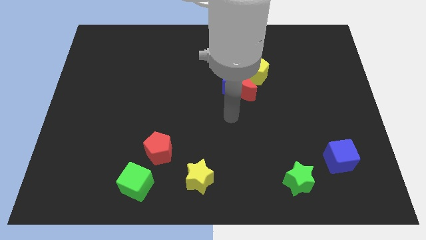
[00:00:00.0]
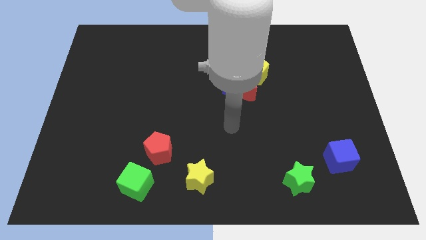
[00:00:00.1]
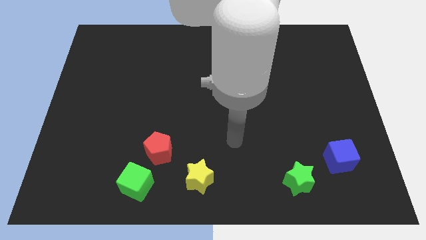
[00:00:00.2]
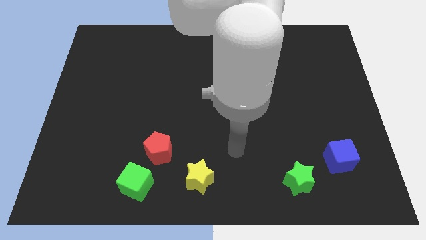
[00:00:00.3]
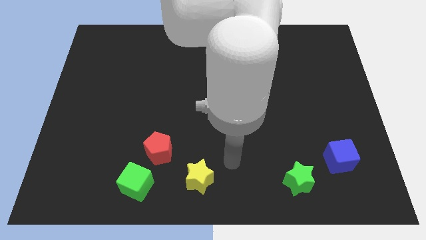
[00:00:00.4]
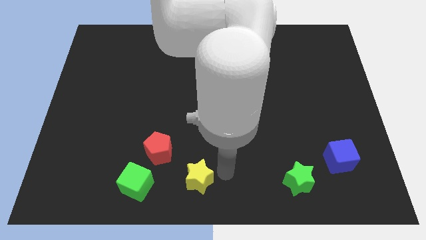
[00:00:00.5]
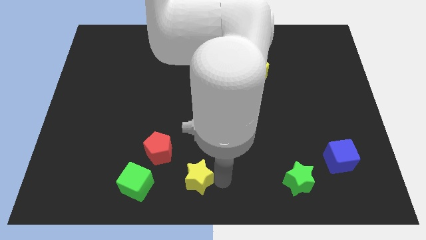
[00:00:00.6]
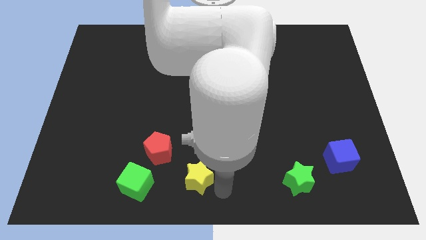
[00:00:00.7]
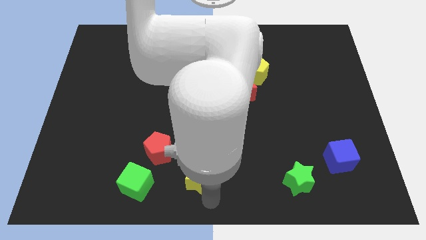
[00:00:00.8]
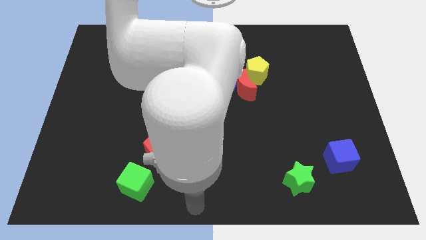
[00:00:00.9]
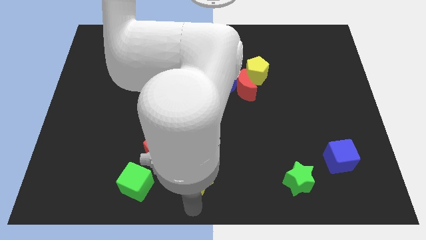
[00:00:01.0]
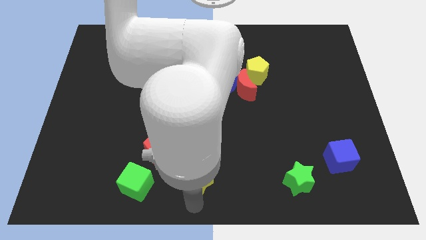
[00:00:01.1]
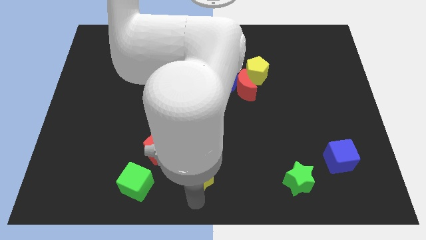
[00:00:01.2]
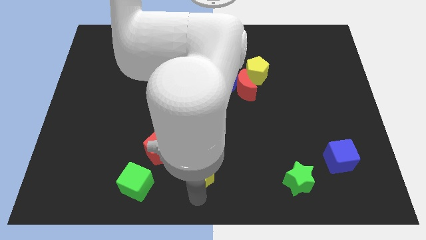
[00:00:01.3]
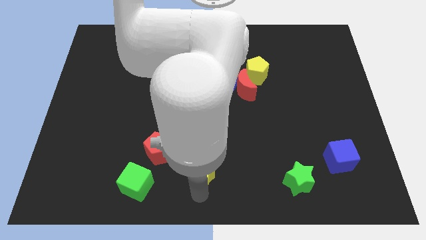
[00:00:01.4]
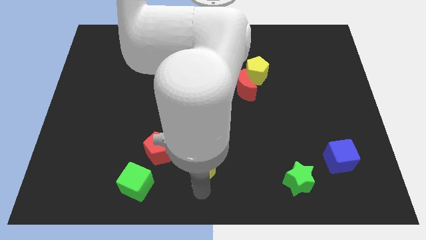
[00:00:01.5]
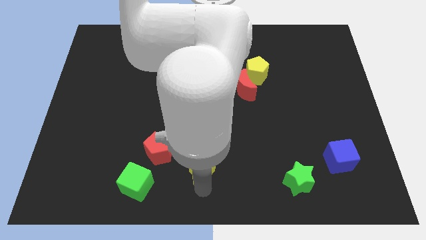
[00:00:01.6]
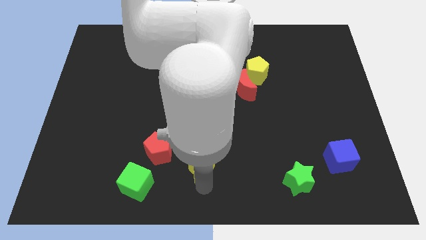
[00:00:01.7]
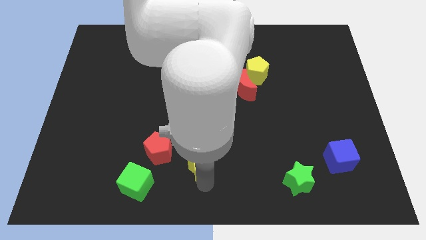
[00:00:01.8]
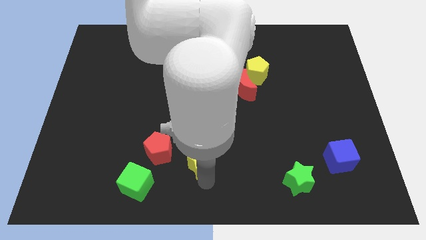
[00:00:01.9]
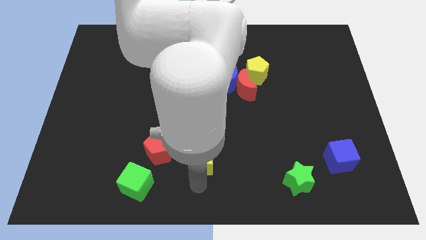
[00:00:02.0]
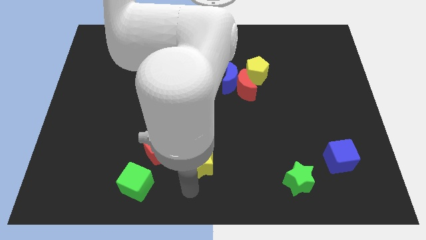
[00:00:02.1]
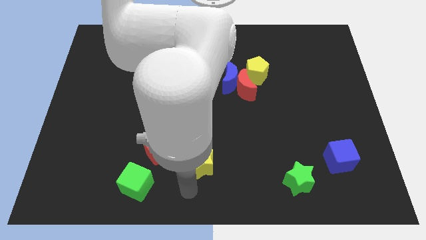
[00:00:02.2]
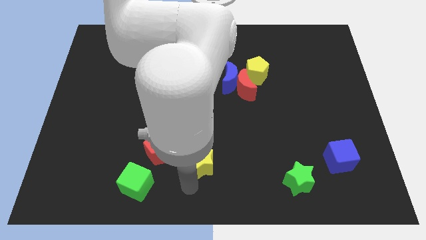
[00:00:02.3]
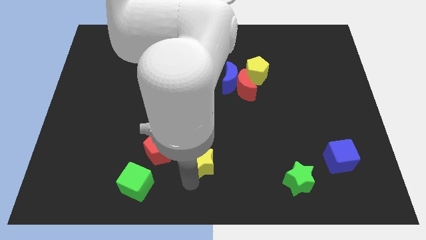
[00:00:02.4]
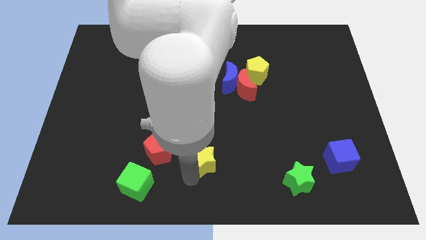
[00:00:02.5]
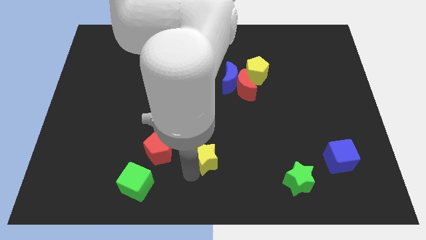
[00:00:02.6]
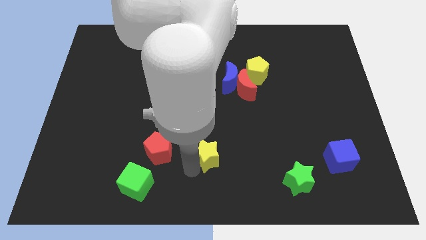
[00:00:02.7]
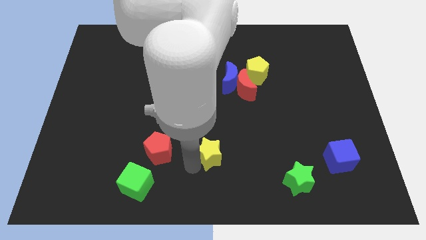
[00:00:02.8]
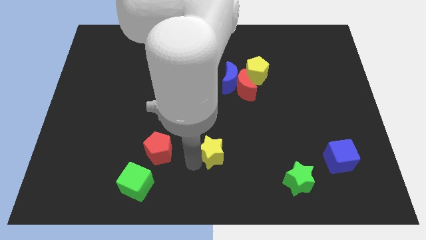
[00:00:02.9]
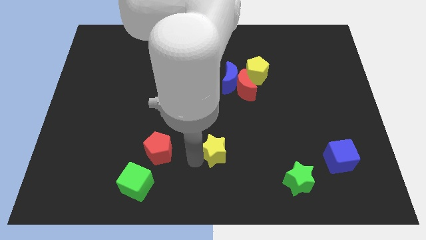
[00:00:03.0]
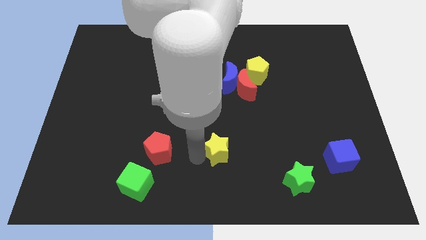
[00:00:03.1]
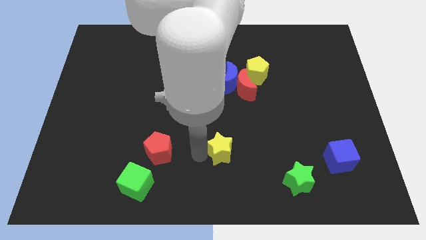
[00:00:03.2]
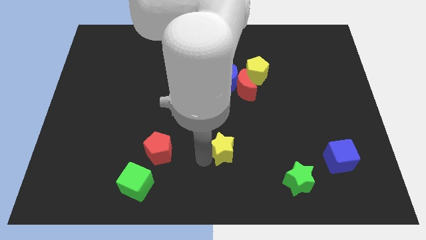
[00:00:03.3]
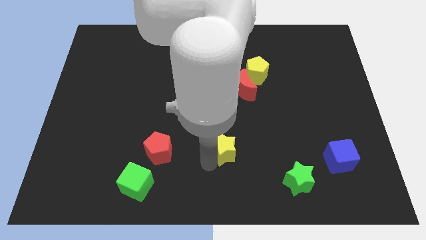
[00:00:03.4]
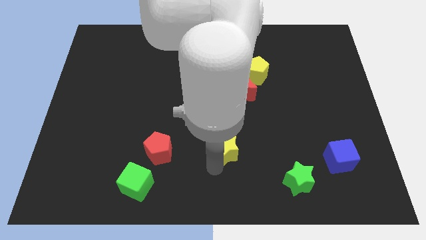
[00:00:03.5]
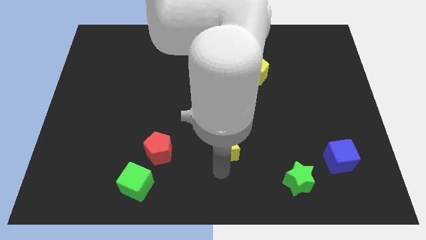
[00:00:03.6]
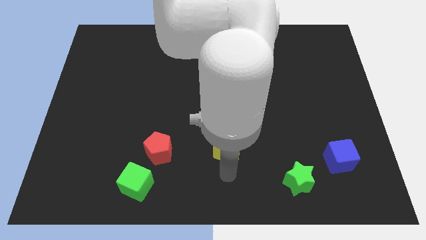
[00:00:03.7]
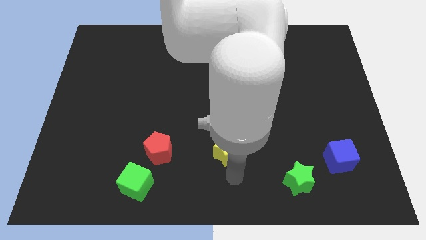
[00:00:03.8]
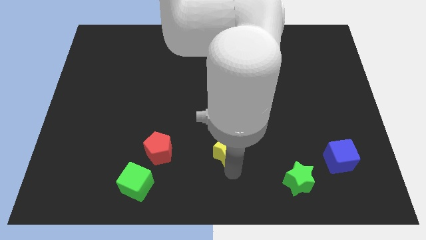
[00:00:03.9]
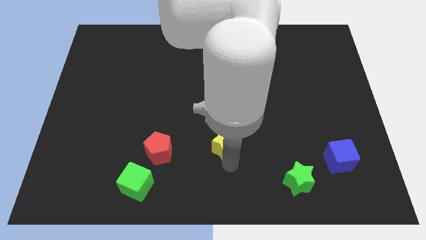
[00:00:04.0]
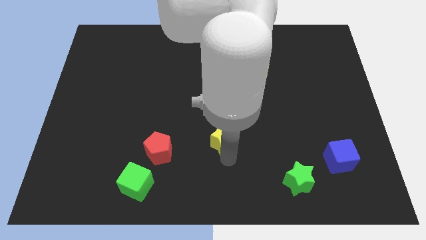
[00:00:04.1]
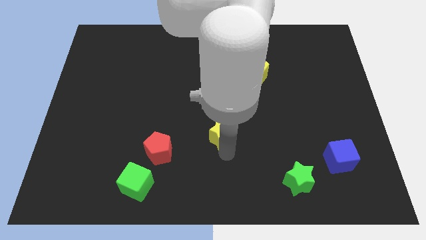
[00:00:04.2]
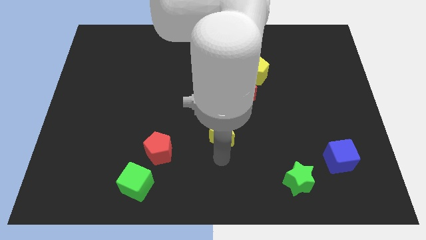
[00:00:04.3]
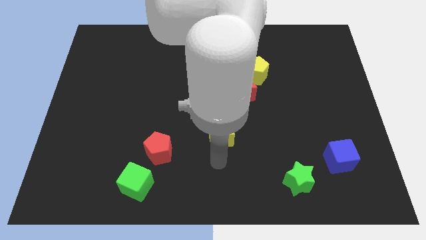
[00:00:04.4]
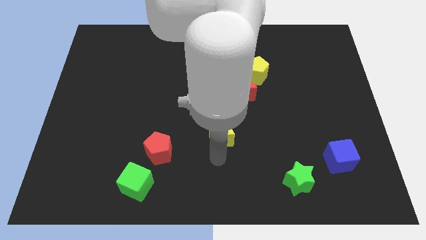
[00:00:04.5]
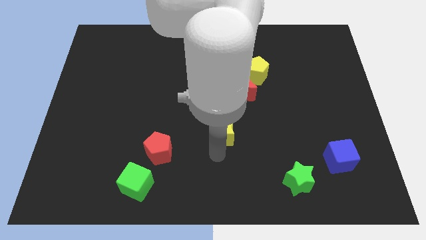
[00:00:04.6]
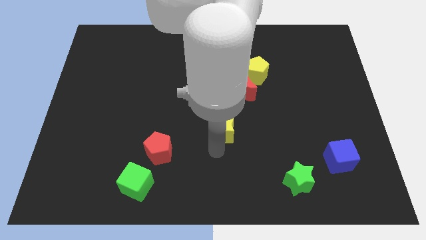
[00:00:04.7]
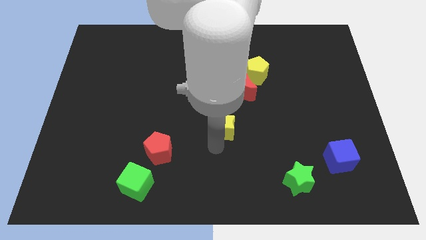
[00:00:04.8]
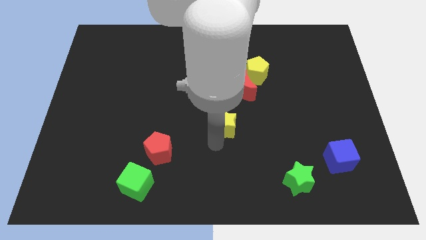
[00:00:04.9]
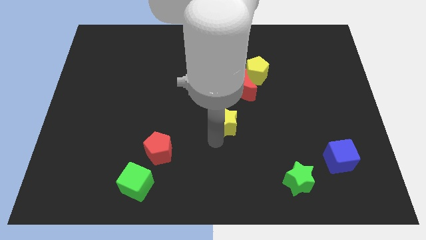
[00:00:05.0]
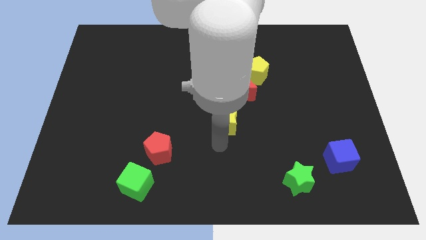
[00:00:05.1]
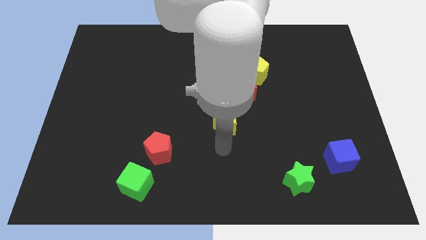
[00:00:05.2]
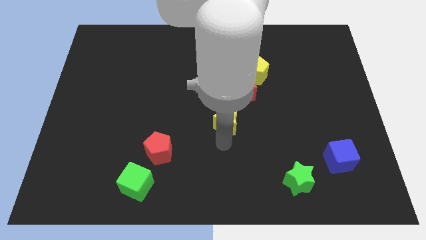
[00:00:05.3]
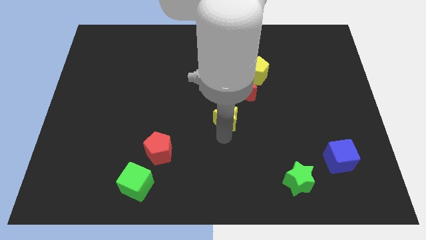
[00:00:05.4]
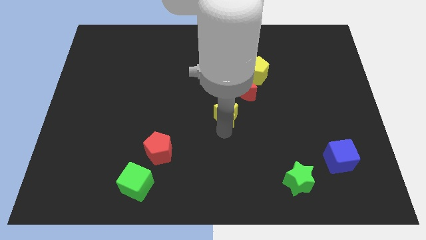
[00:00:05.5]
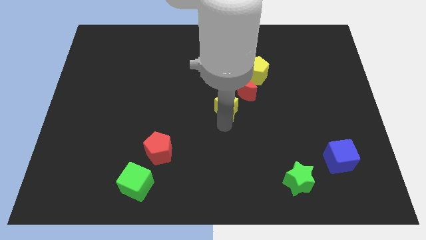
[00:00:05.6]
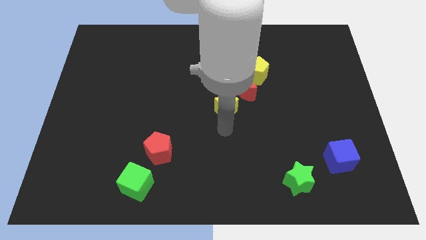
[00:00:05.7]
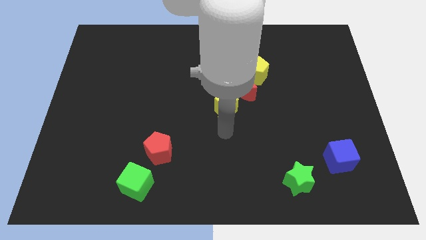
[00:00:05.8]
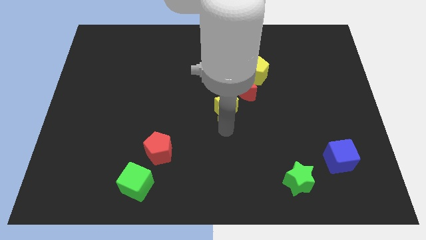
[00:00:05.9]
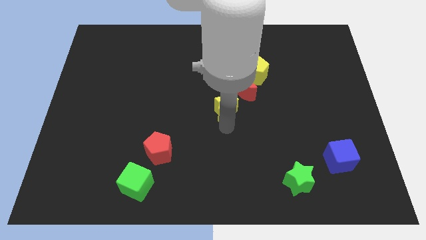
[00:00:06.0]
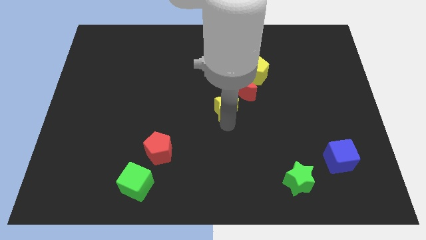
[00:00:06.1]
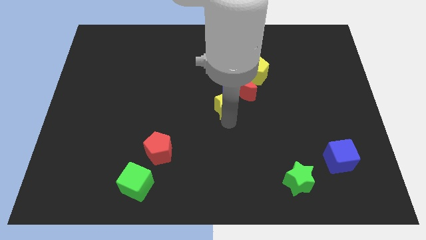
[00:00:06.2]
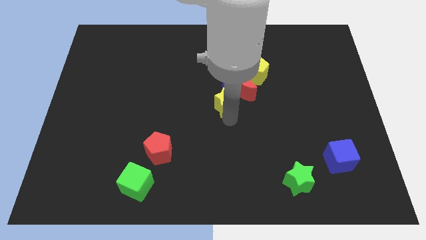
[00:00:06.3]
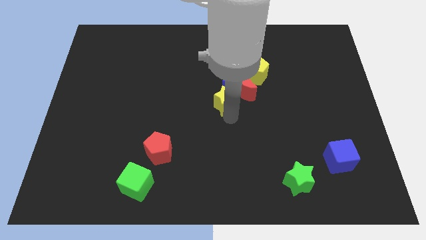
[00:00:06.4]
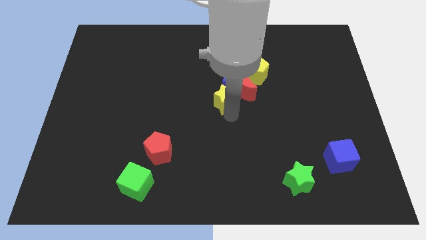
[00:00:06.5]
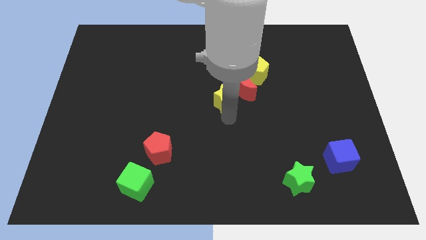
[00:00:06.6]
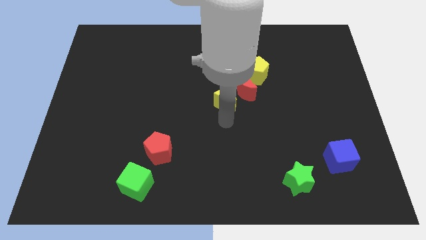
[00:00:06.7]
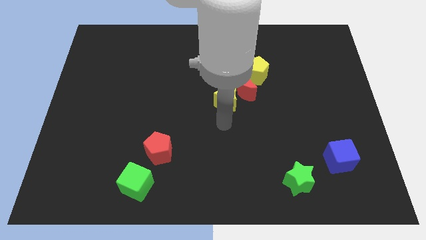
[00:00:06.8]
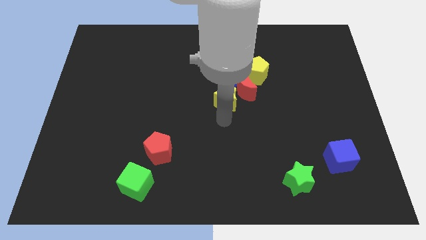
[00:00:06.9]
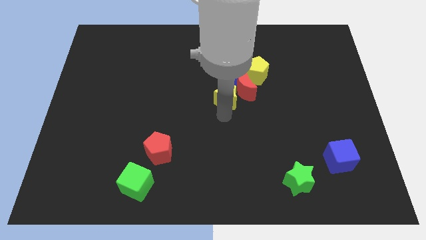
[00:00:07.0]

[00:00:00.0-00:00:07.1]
put the yellow star close to the blue moon
